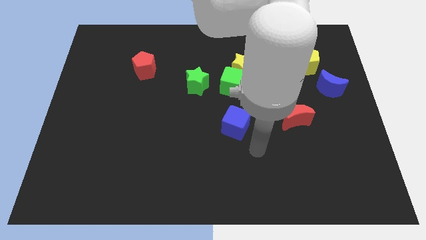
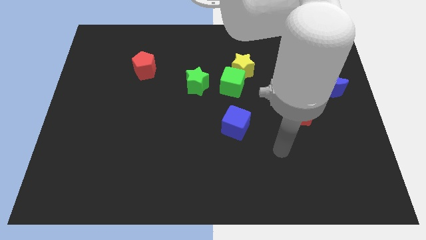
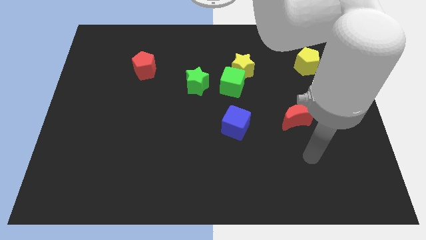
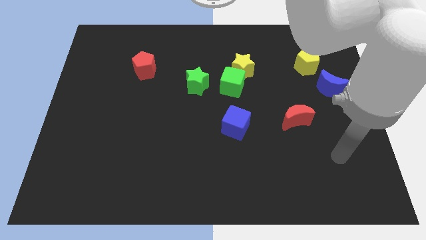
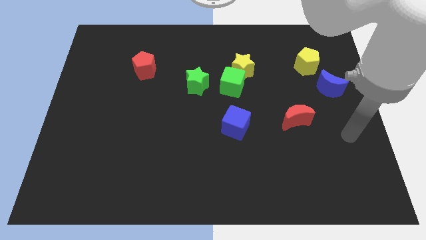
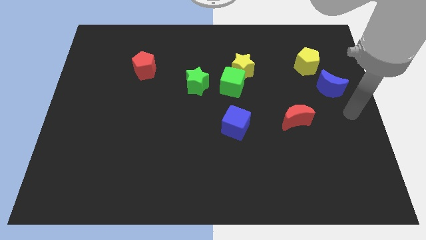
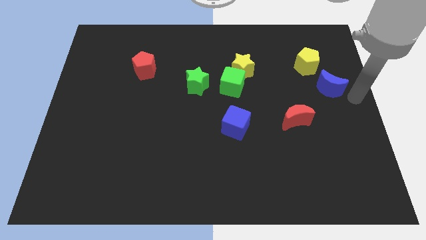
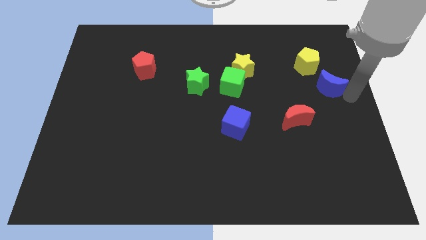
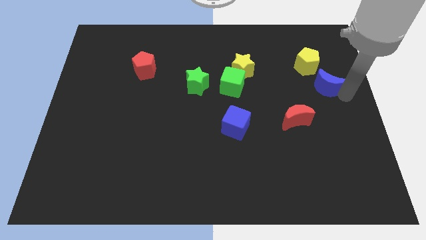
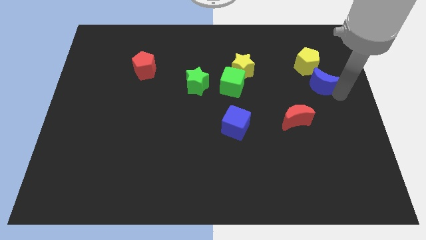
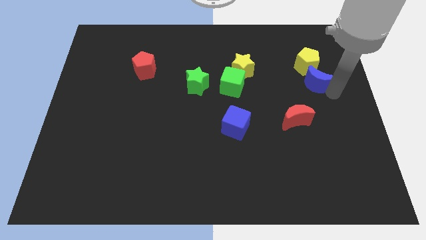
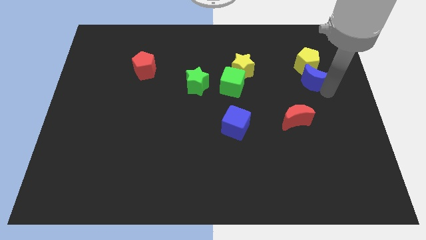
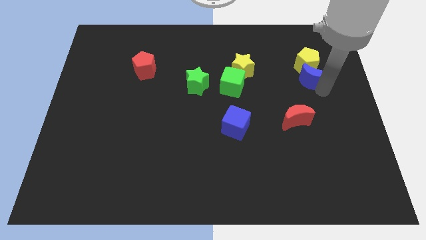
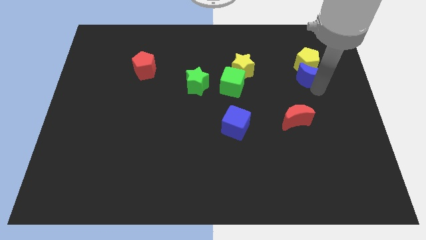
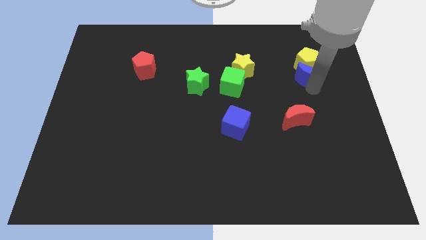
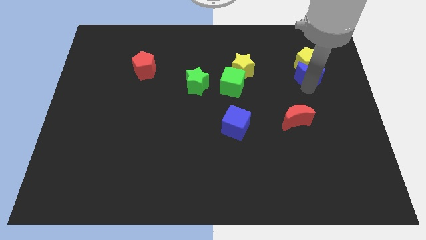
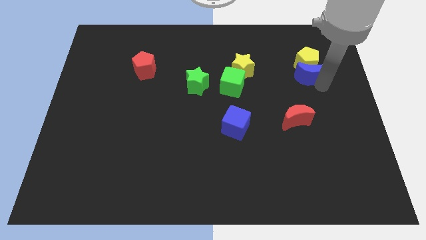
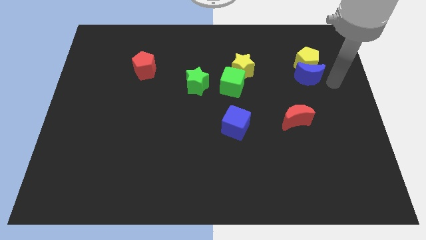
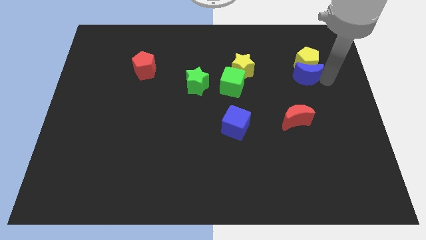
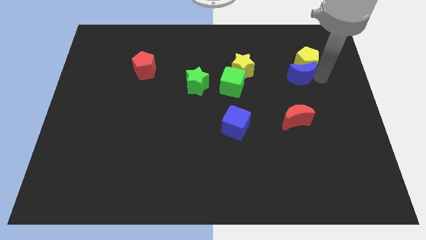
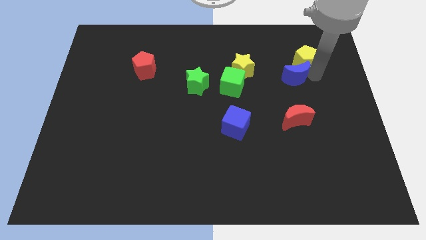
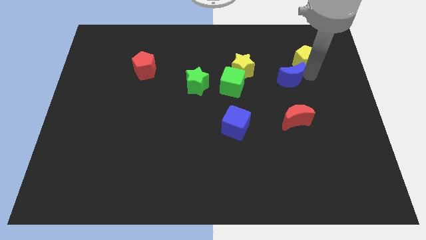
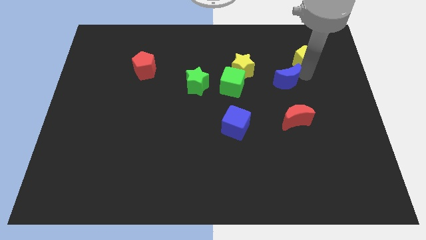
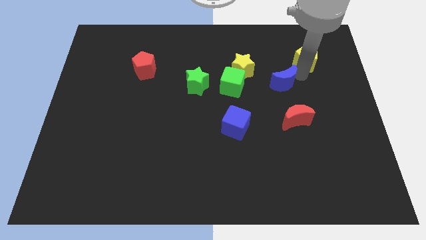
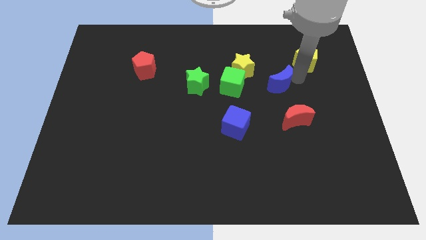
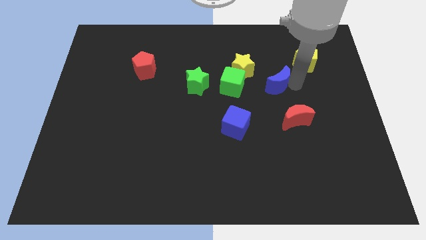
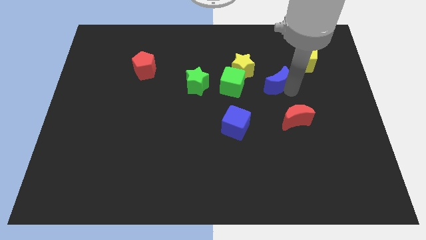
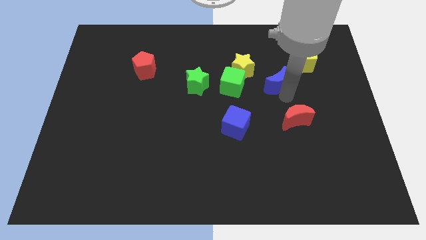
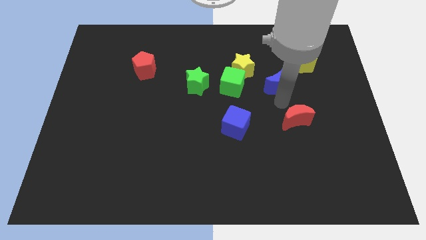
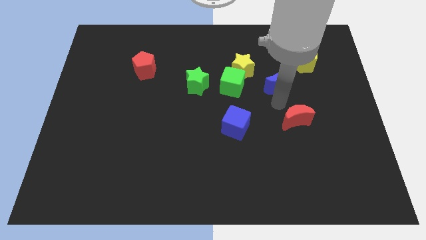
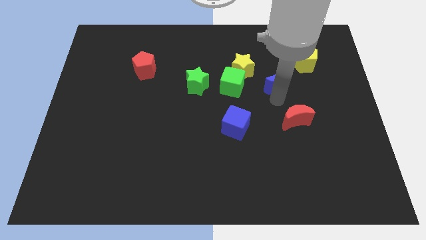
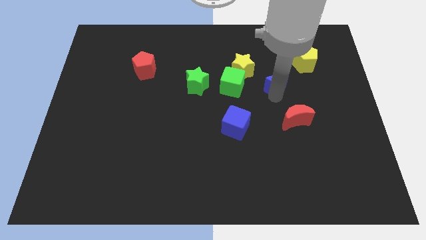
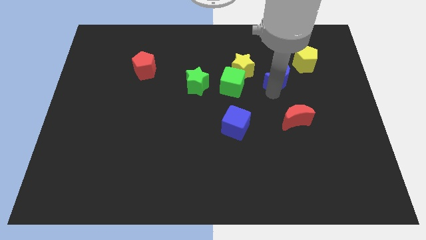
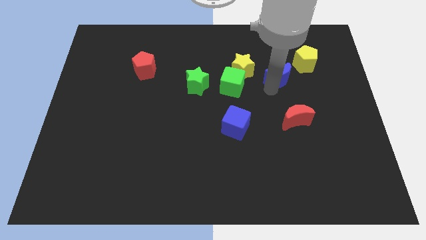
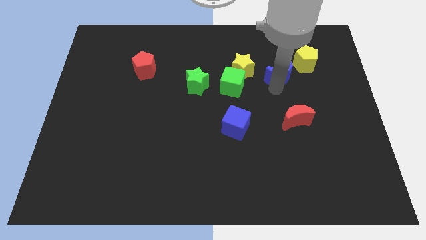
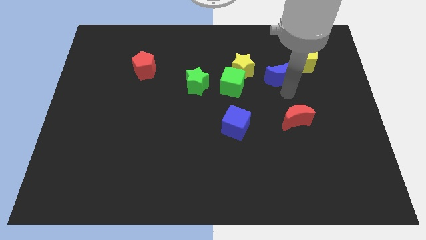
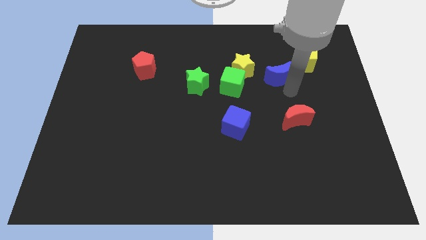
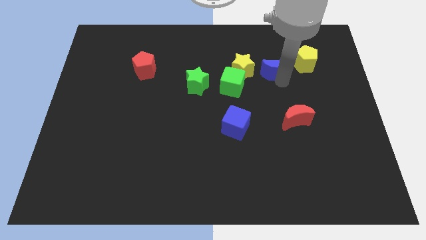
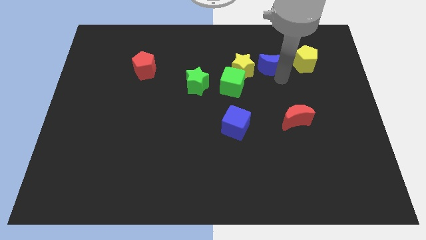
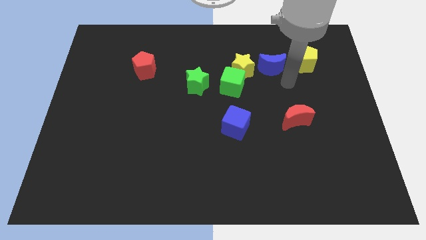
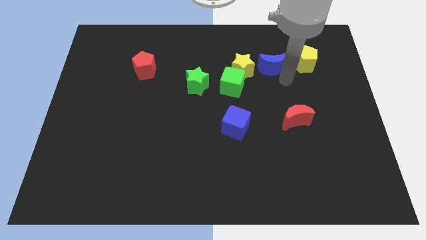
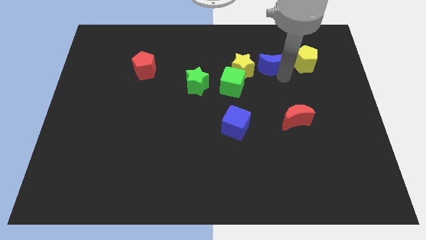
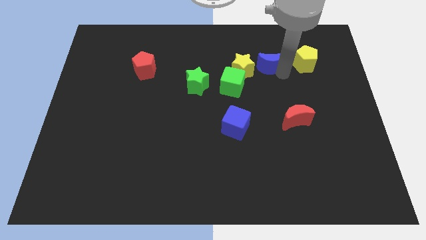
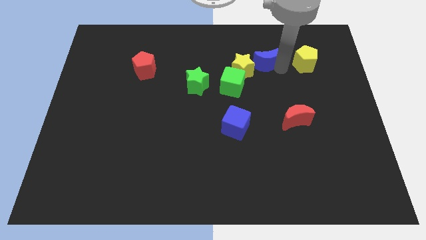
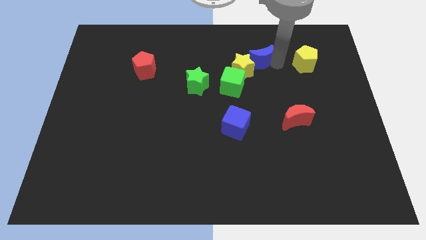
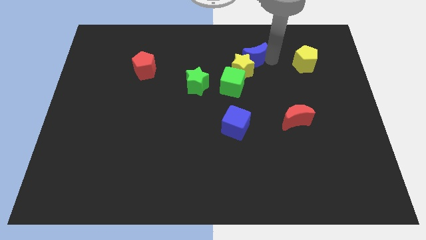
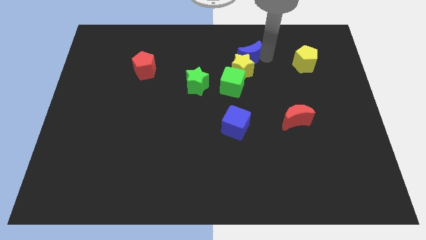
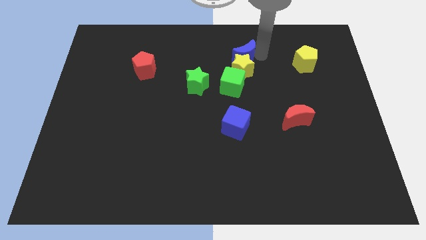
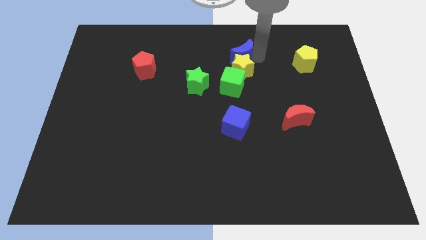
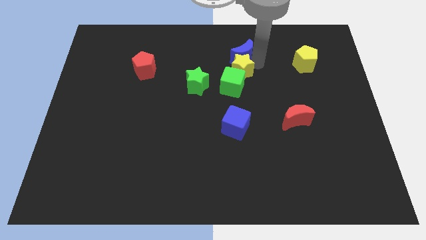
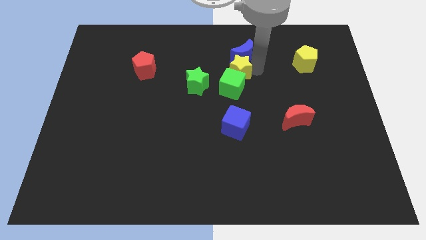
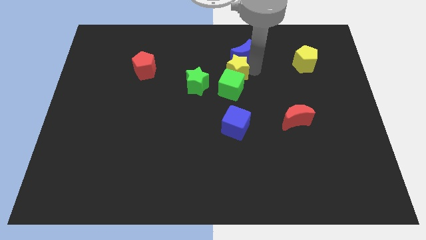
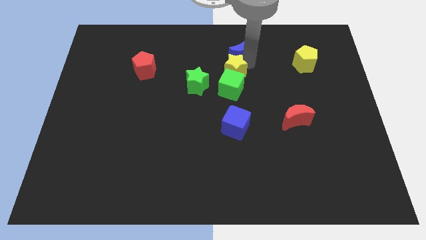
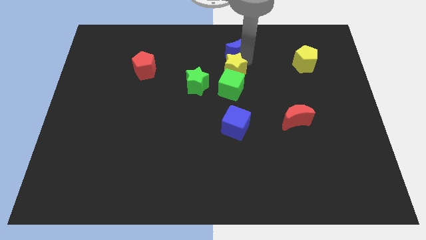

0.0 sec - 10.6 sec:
push the blue moon to the top side

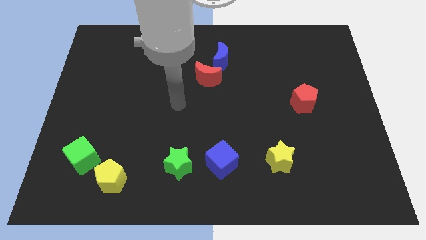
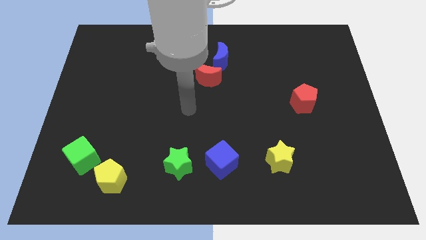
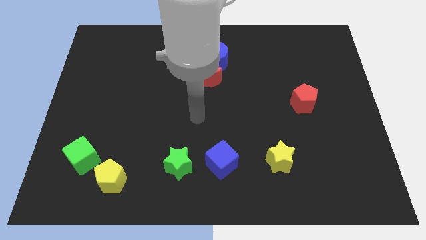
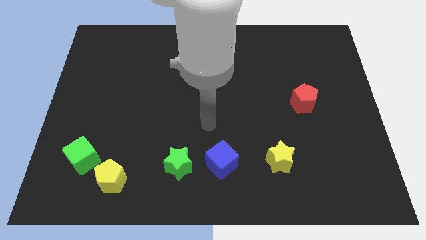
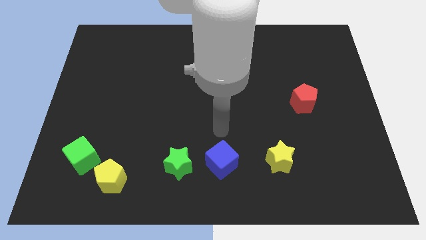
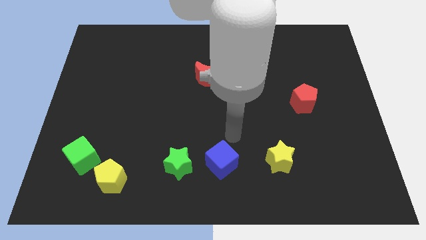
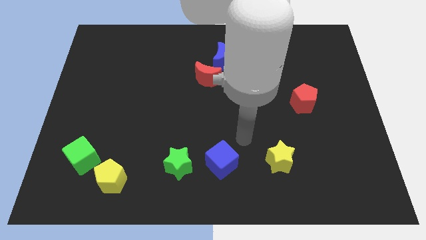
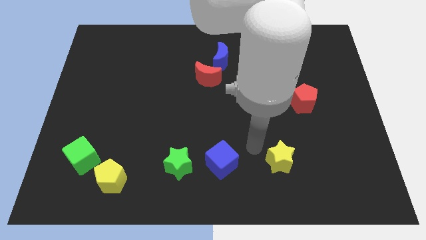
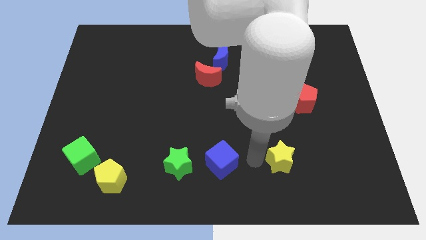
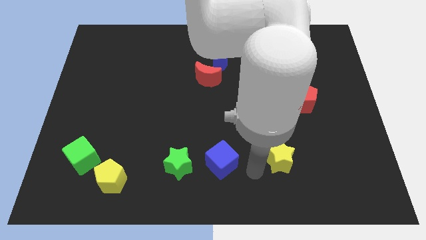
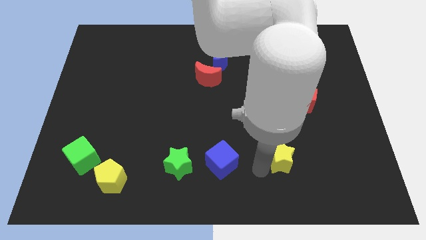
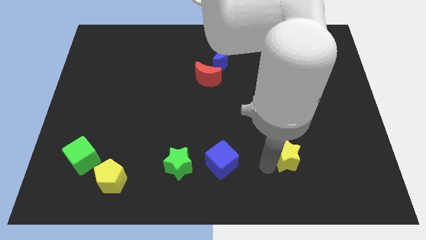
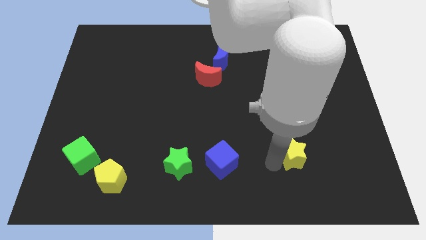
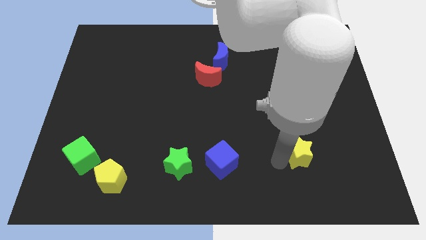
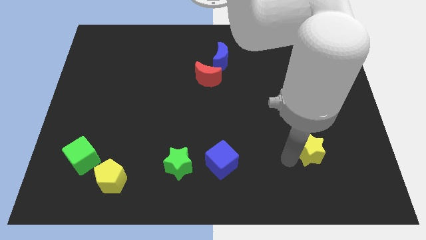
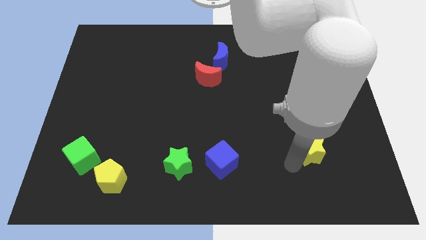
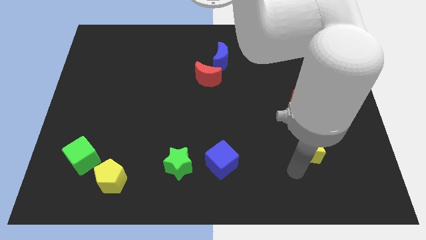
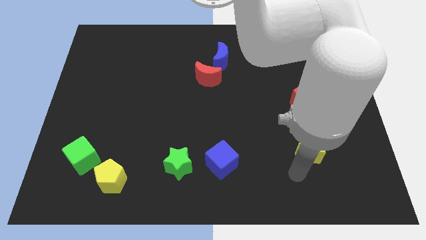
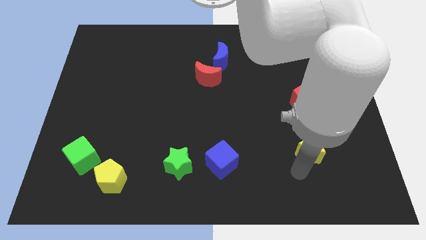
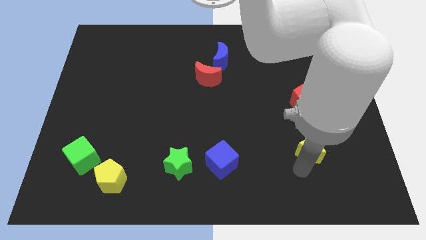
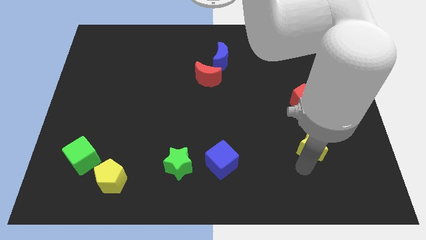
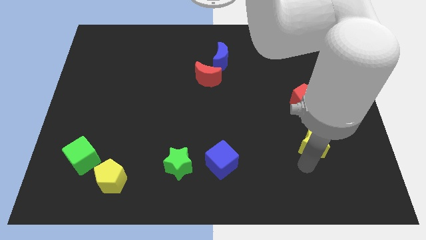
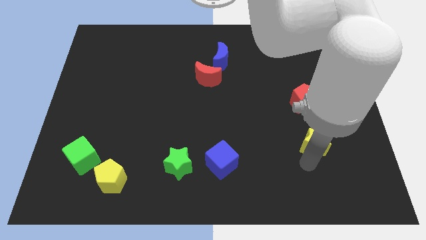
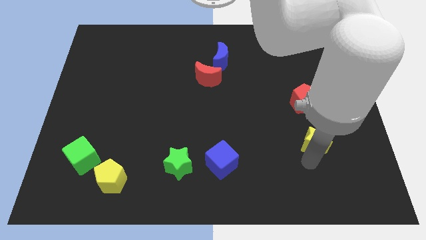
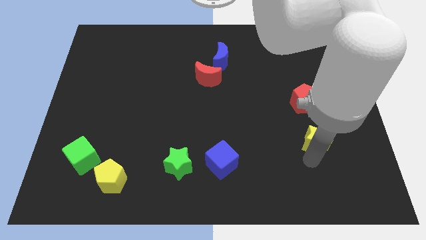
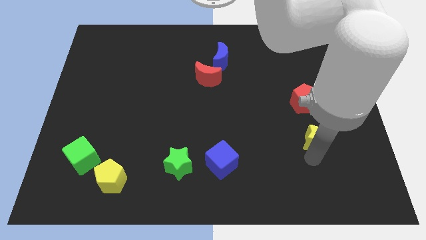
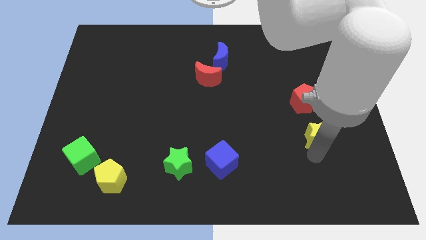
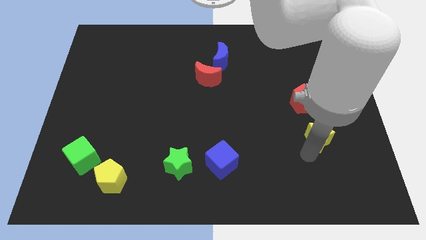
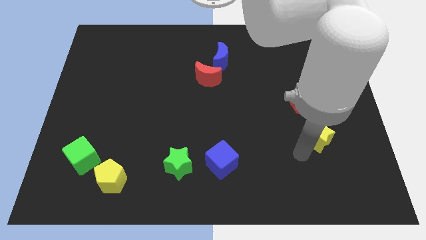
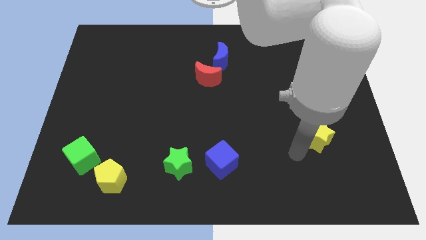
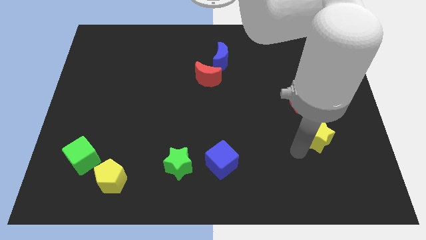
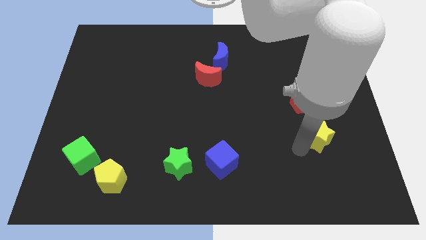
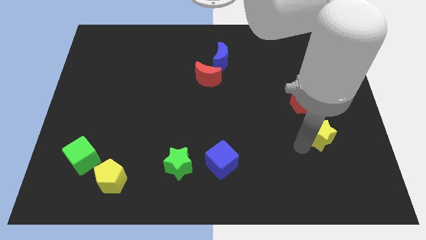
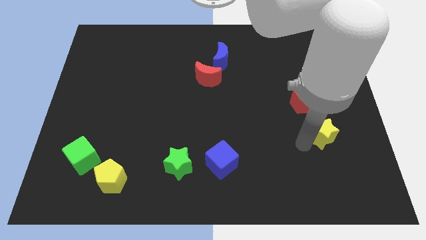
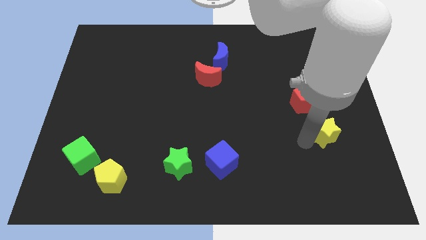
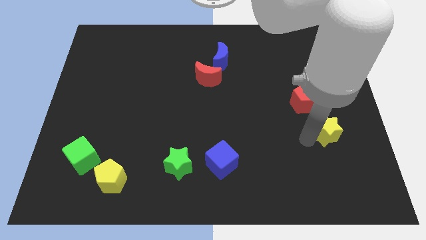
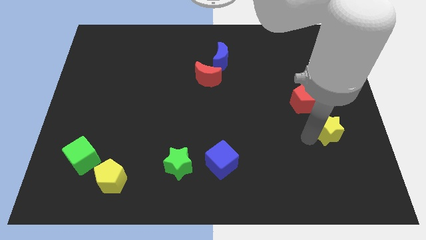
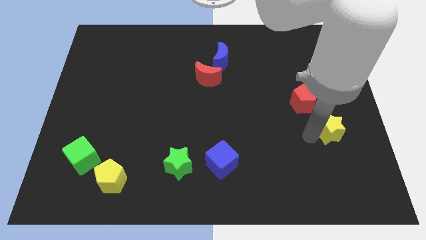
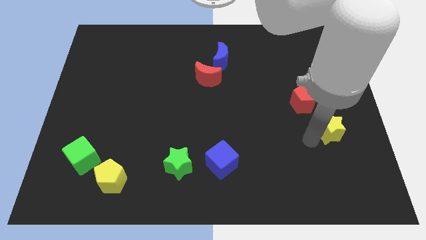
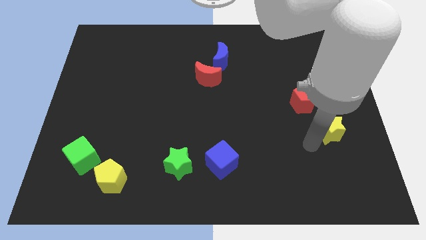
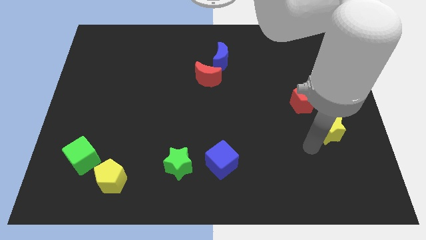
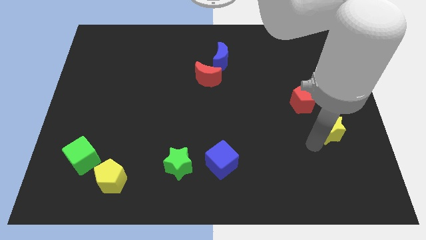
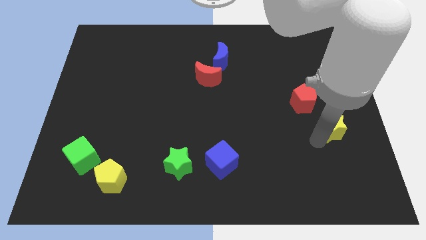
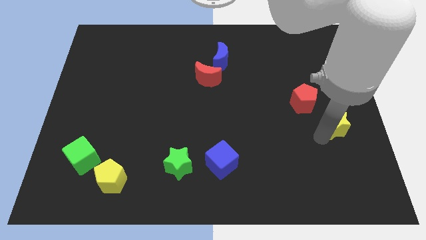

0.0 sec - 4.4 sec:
put the yellow star to the center right
